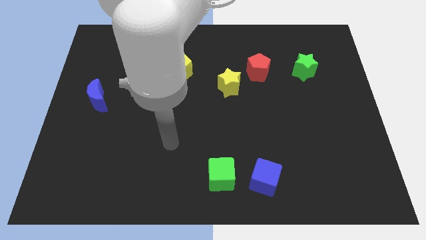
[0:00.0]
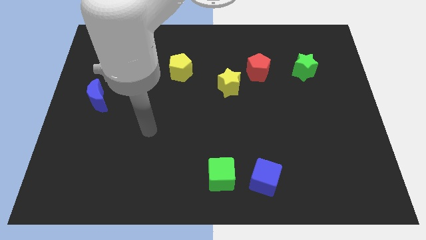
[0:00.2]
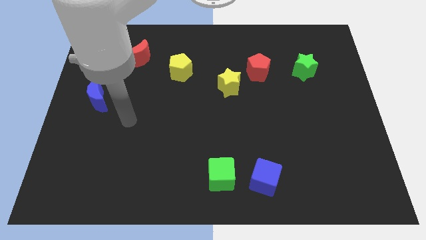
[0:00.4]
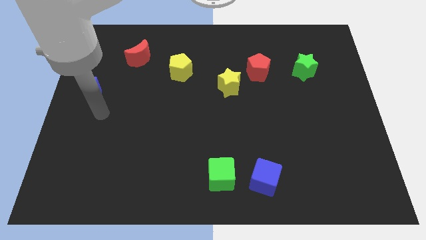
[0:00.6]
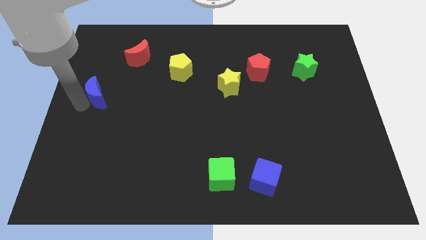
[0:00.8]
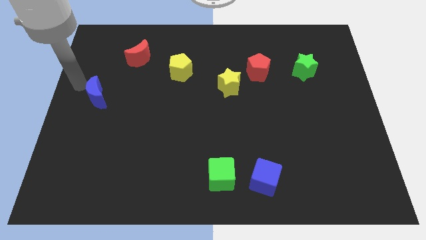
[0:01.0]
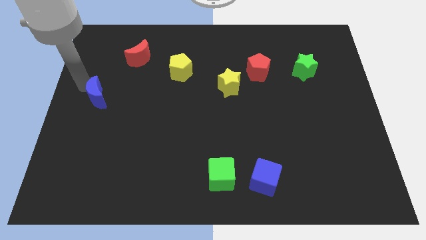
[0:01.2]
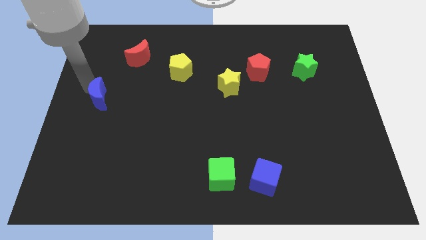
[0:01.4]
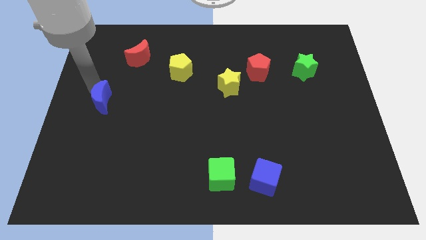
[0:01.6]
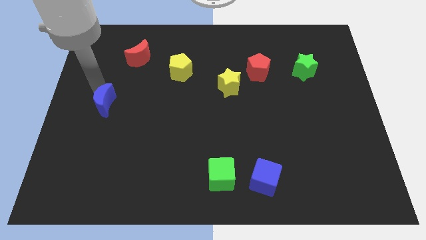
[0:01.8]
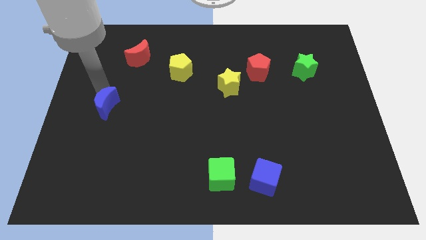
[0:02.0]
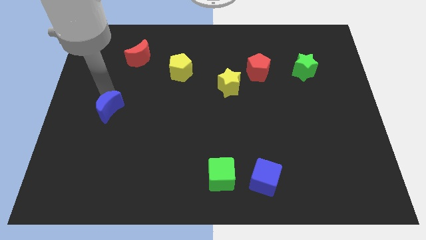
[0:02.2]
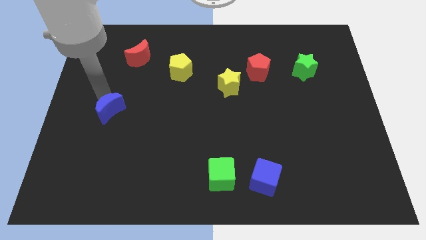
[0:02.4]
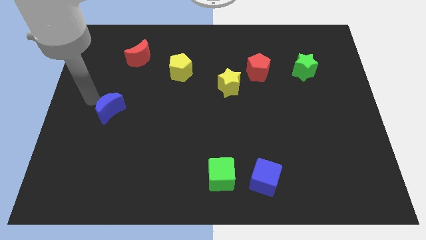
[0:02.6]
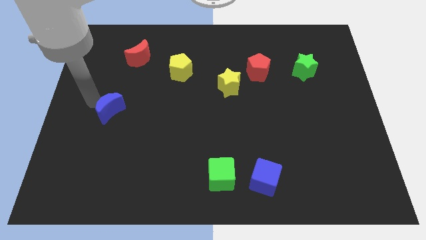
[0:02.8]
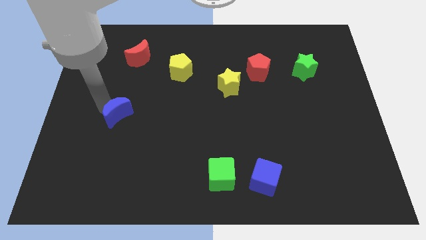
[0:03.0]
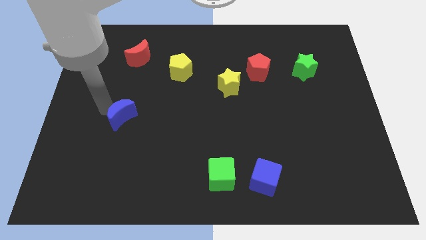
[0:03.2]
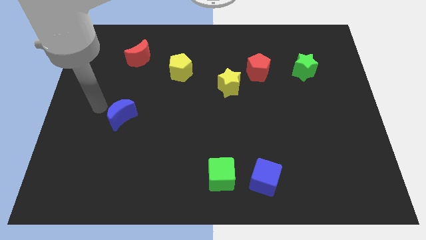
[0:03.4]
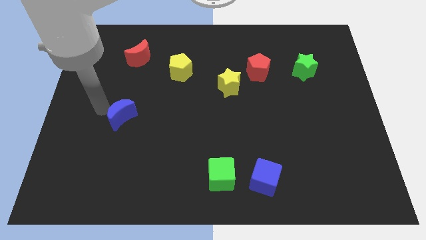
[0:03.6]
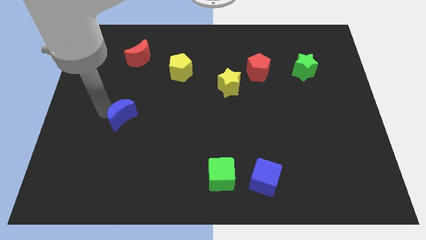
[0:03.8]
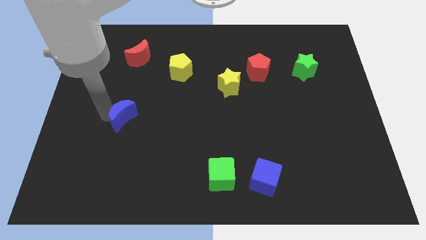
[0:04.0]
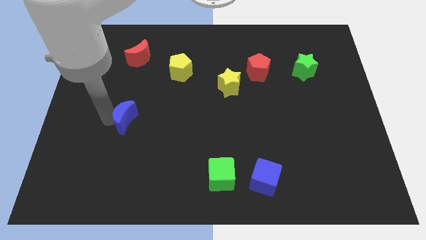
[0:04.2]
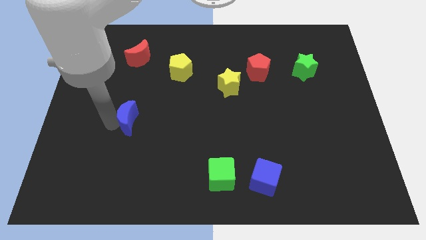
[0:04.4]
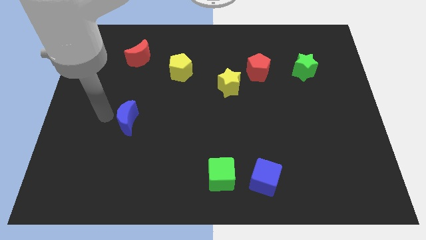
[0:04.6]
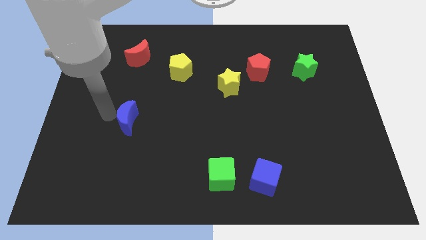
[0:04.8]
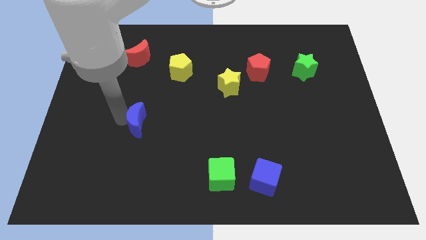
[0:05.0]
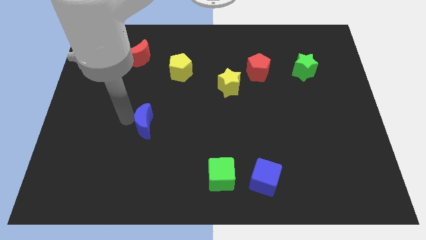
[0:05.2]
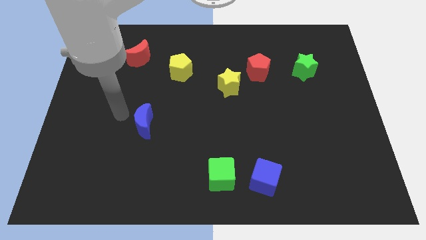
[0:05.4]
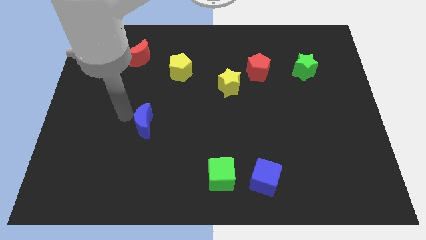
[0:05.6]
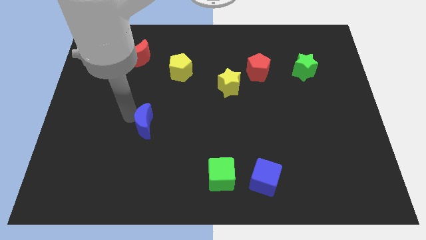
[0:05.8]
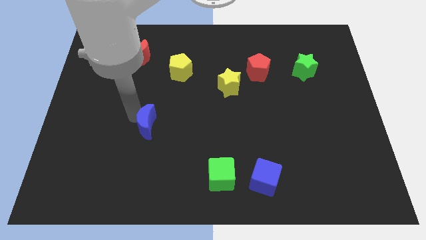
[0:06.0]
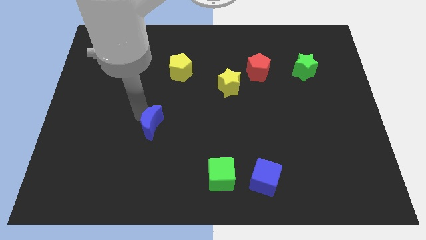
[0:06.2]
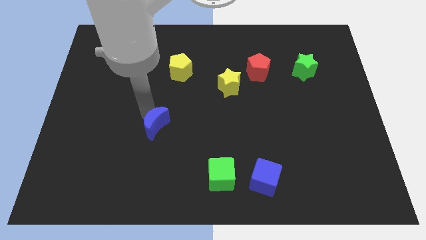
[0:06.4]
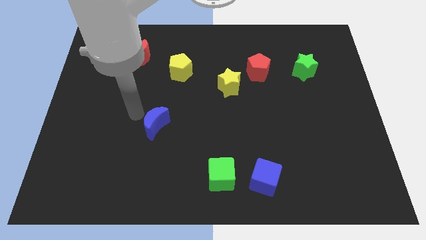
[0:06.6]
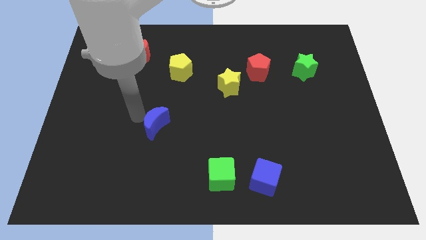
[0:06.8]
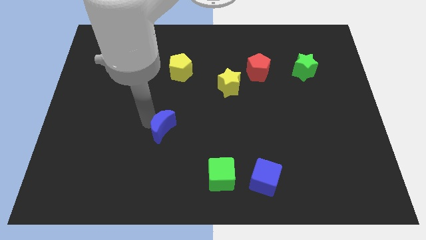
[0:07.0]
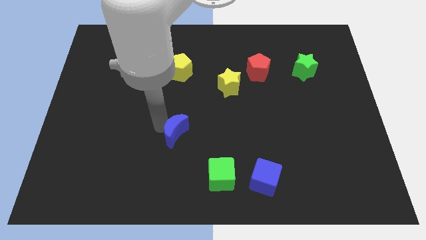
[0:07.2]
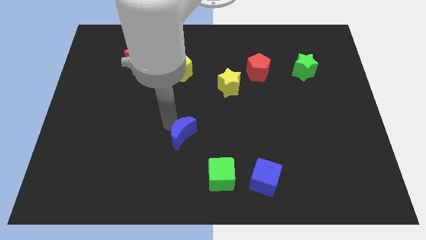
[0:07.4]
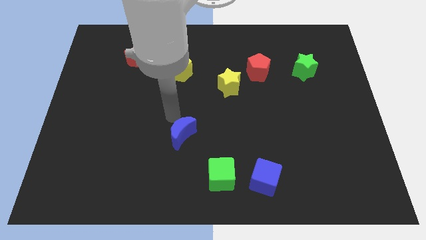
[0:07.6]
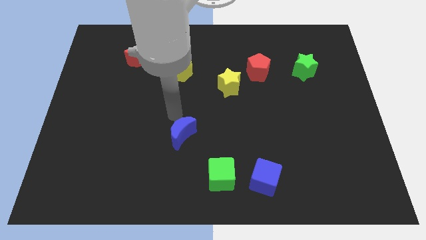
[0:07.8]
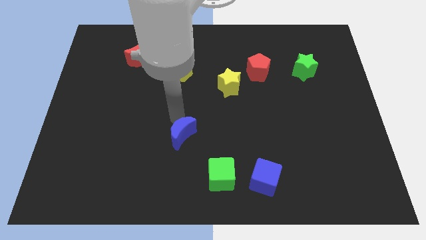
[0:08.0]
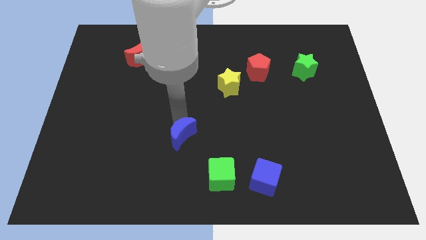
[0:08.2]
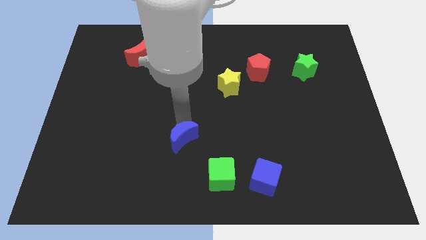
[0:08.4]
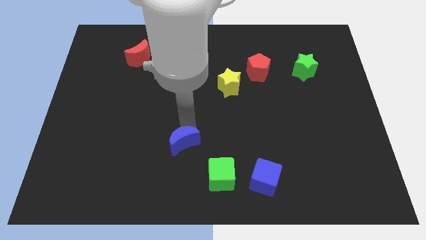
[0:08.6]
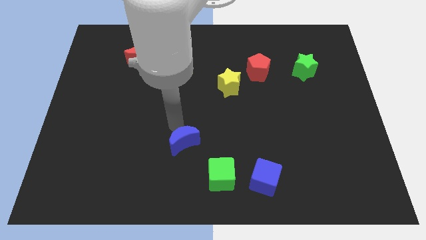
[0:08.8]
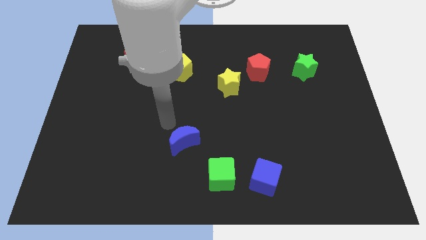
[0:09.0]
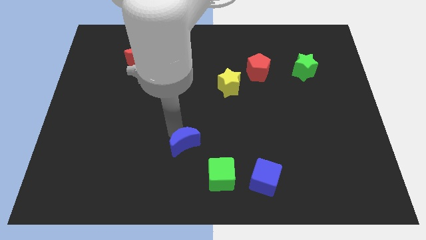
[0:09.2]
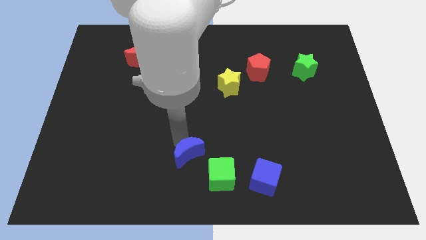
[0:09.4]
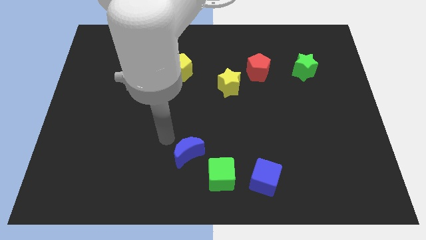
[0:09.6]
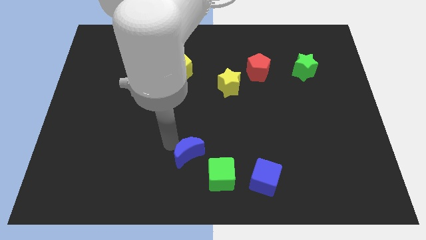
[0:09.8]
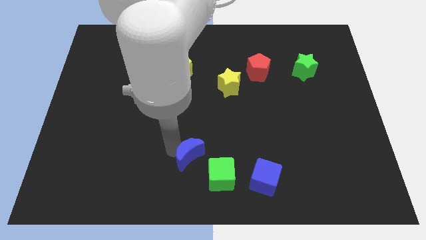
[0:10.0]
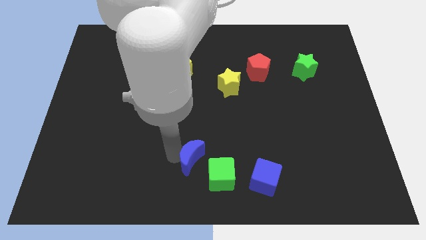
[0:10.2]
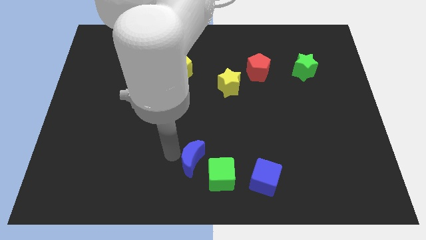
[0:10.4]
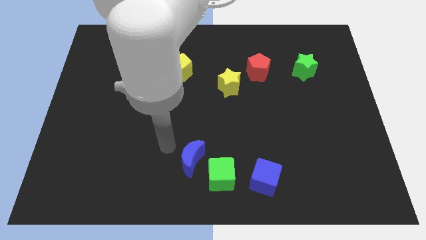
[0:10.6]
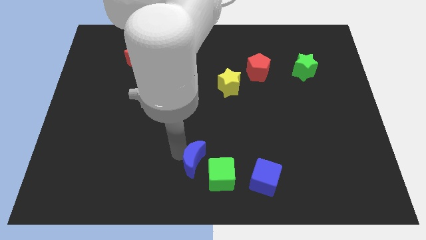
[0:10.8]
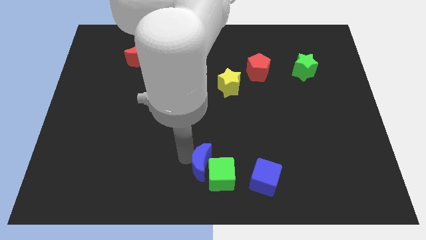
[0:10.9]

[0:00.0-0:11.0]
put the blue moon towards the green cube
